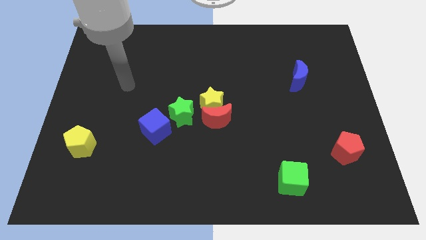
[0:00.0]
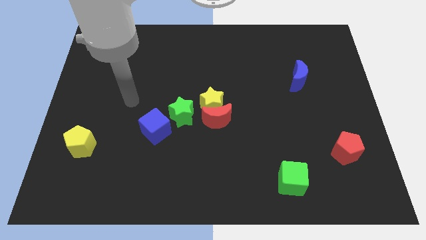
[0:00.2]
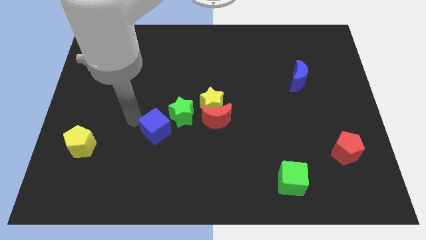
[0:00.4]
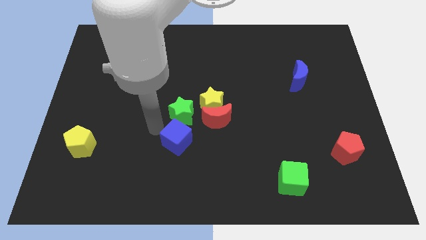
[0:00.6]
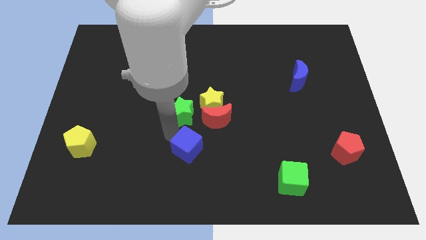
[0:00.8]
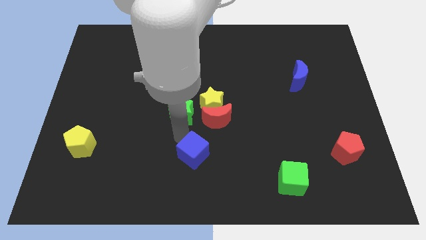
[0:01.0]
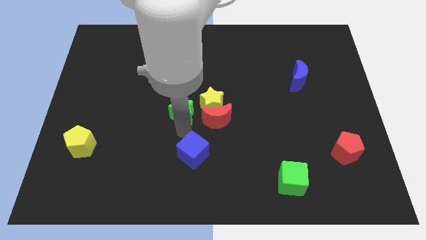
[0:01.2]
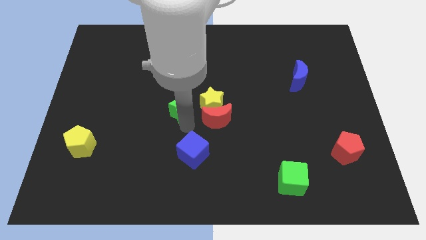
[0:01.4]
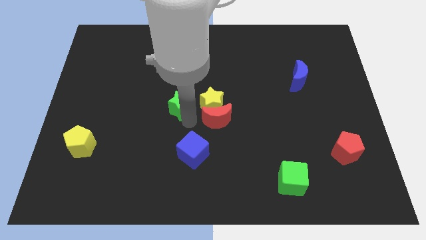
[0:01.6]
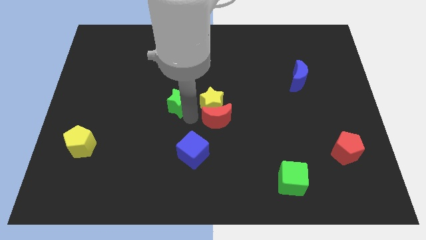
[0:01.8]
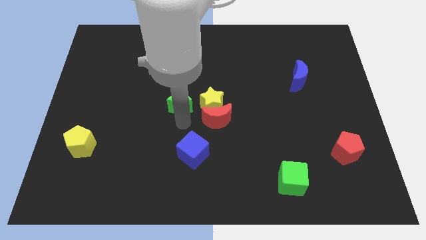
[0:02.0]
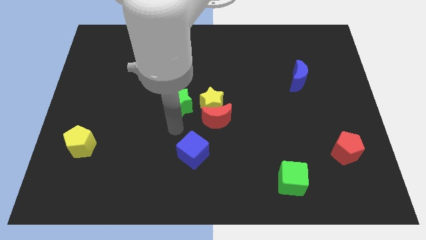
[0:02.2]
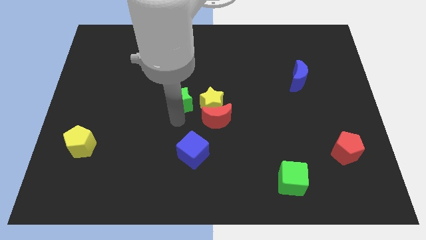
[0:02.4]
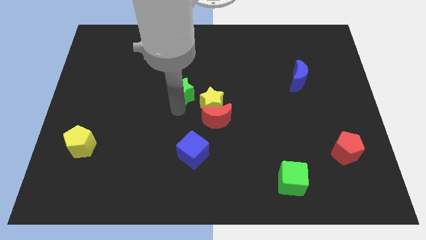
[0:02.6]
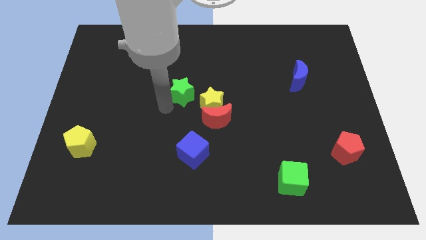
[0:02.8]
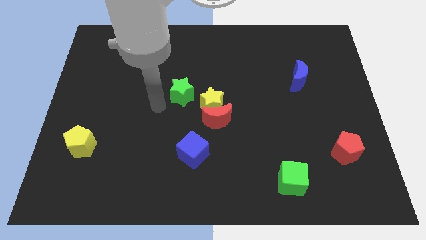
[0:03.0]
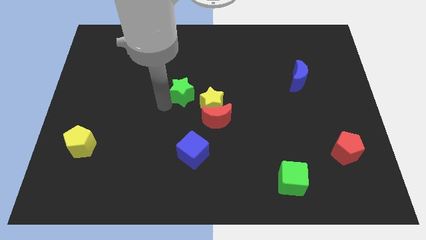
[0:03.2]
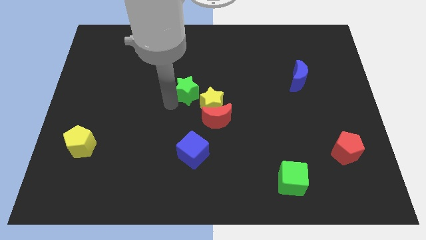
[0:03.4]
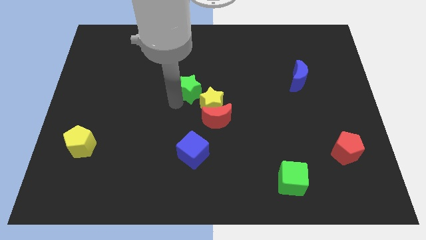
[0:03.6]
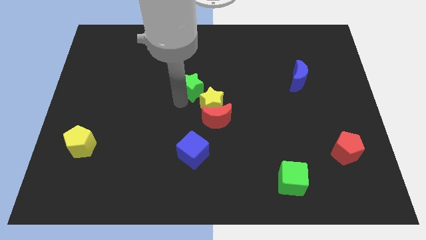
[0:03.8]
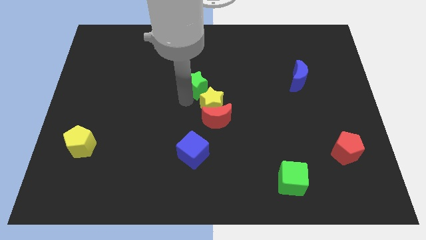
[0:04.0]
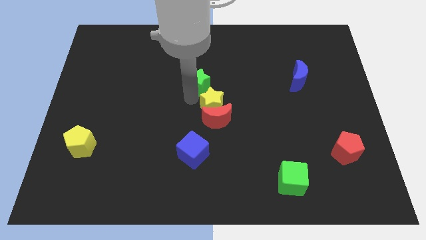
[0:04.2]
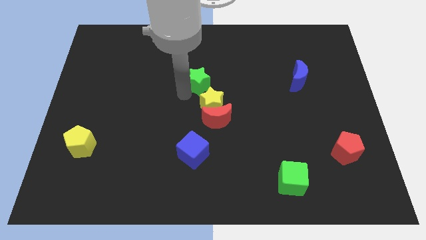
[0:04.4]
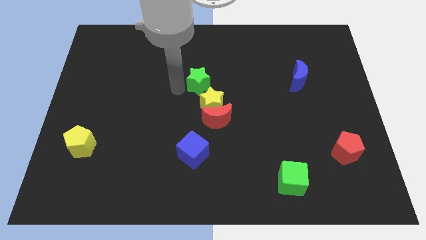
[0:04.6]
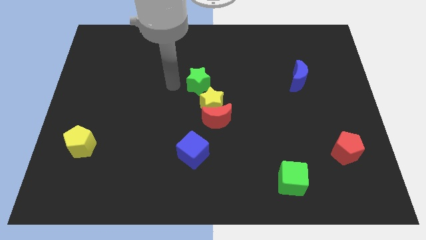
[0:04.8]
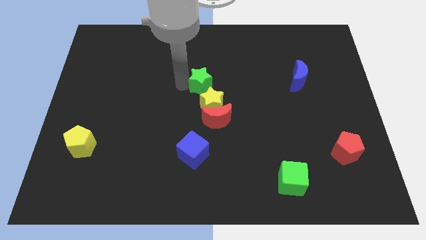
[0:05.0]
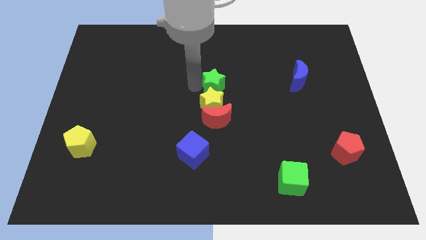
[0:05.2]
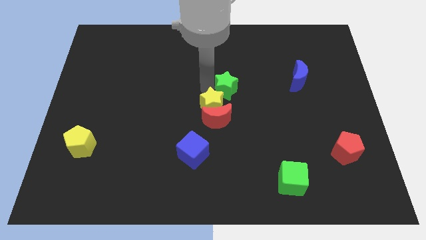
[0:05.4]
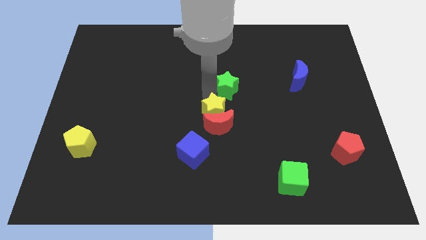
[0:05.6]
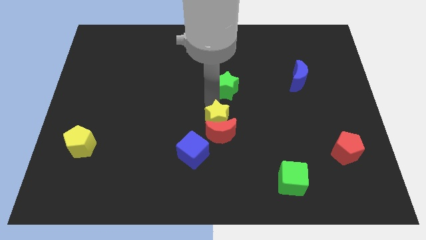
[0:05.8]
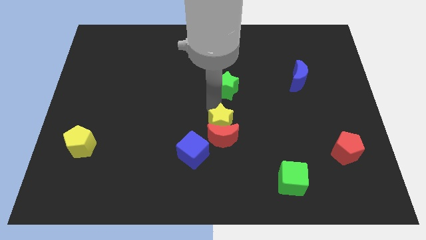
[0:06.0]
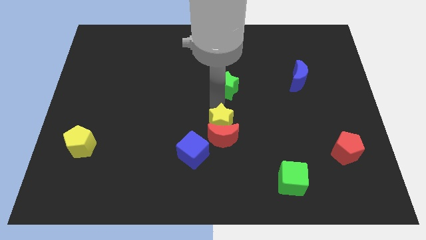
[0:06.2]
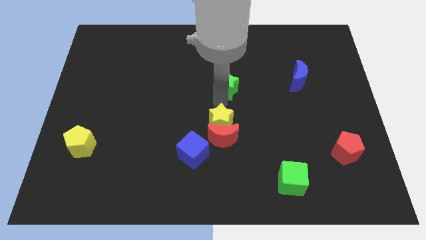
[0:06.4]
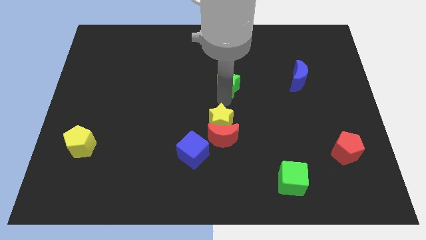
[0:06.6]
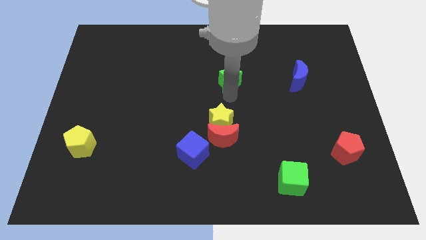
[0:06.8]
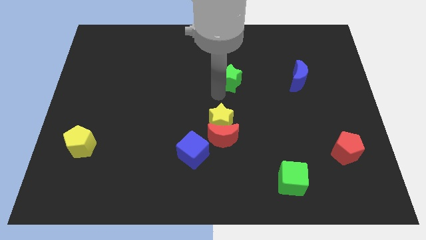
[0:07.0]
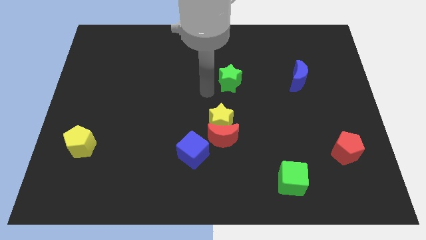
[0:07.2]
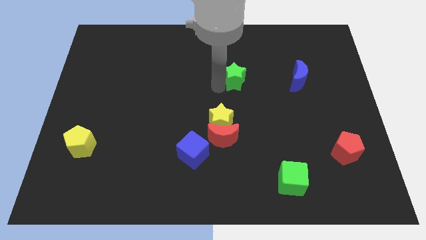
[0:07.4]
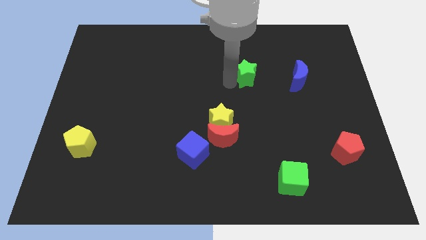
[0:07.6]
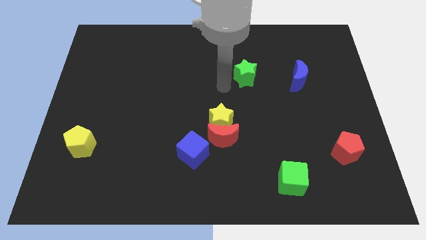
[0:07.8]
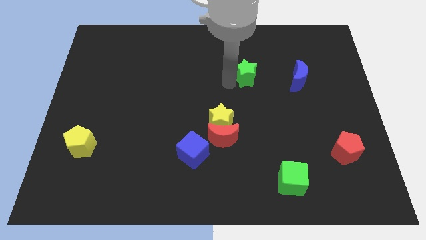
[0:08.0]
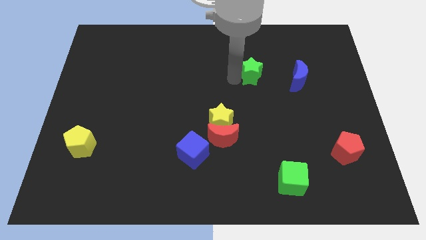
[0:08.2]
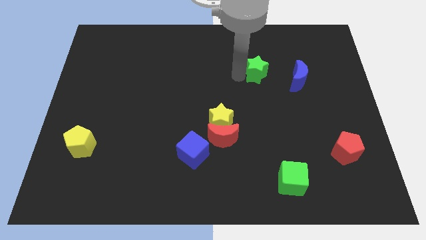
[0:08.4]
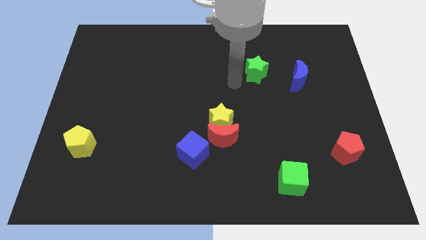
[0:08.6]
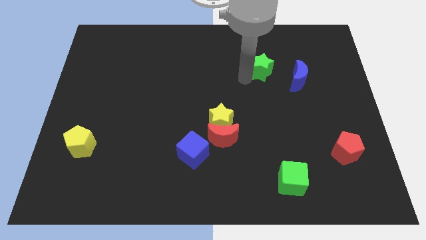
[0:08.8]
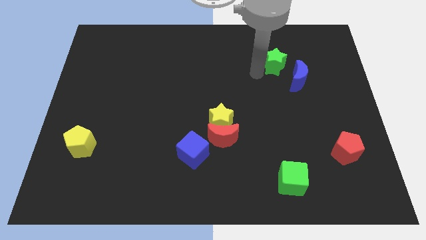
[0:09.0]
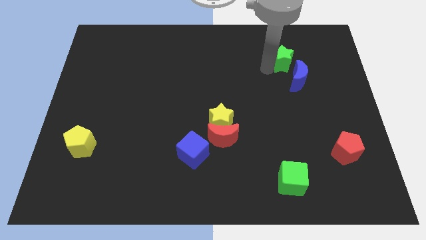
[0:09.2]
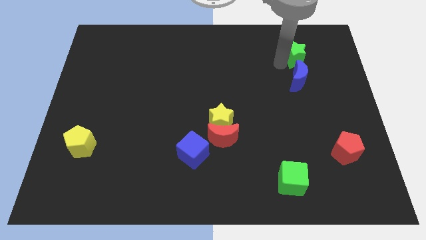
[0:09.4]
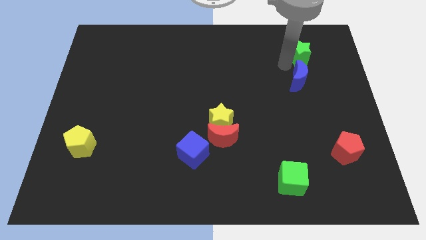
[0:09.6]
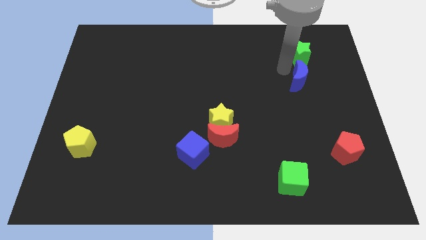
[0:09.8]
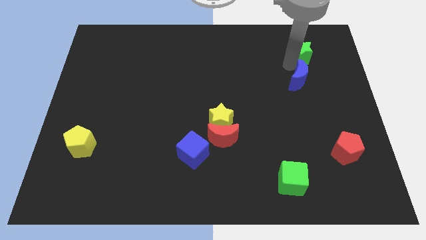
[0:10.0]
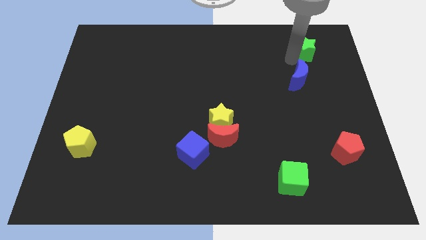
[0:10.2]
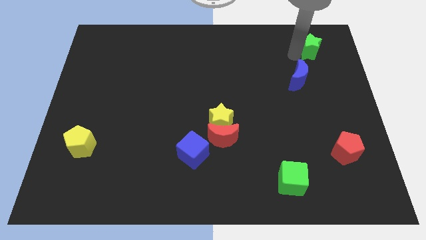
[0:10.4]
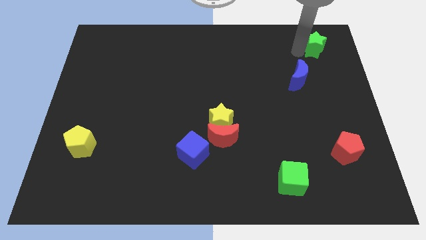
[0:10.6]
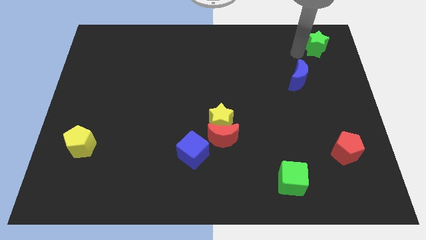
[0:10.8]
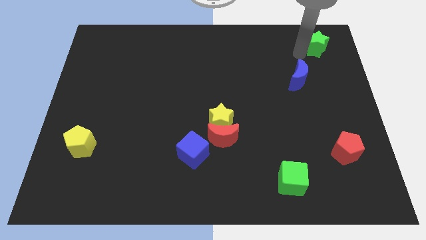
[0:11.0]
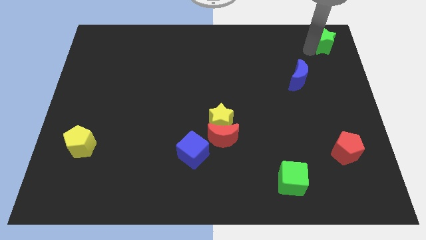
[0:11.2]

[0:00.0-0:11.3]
slide the green star to the top right of the board
